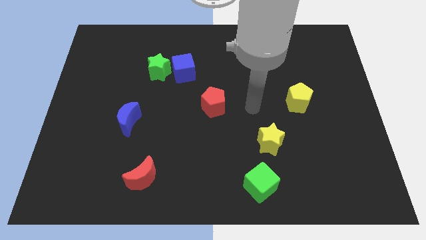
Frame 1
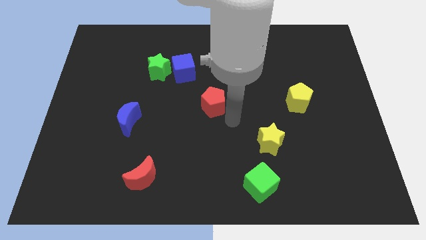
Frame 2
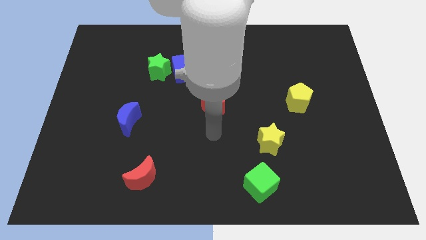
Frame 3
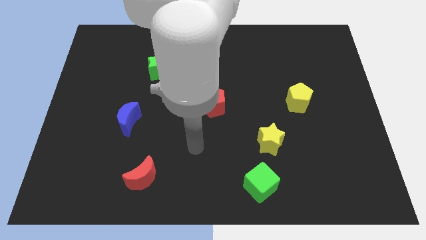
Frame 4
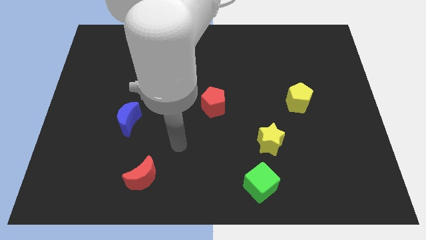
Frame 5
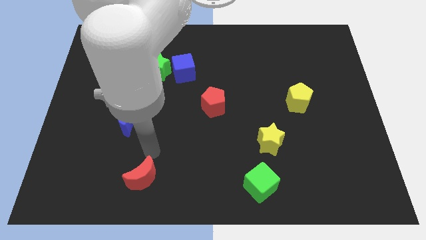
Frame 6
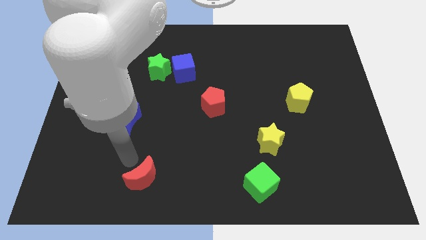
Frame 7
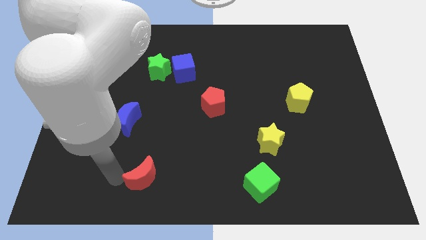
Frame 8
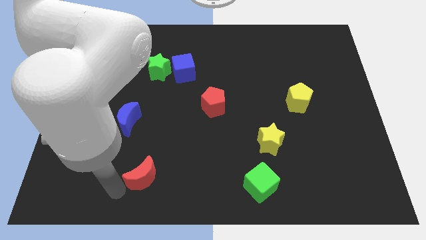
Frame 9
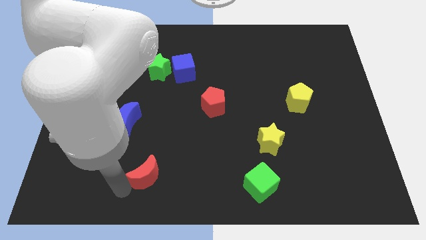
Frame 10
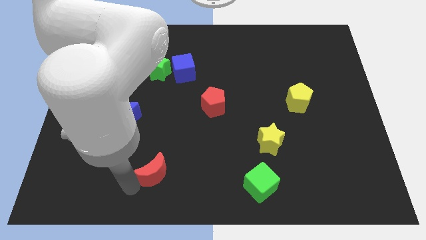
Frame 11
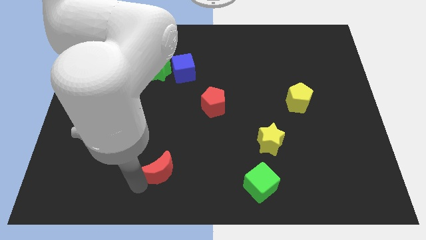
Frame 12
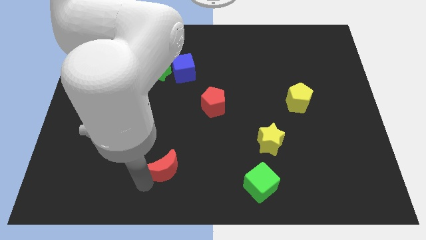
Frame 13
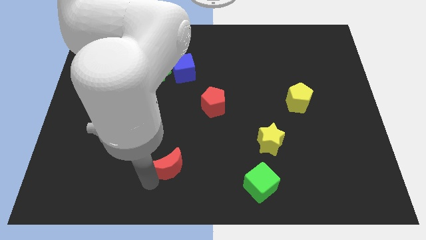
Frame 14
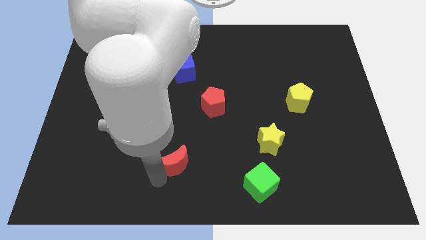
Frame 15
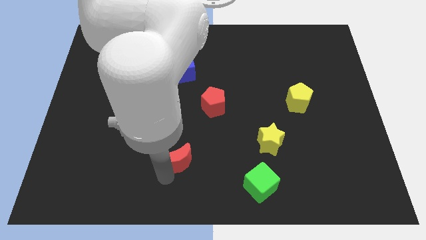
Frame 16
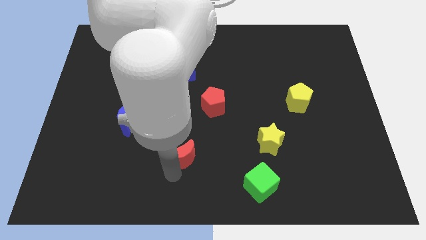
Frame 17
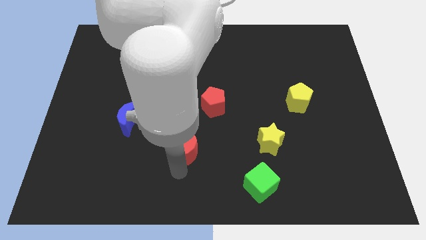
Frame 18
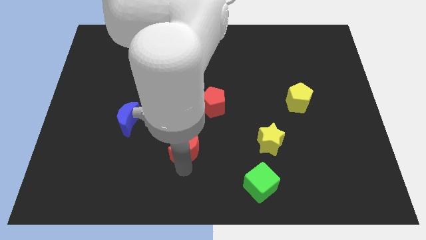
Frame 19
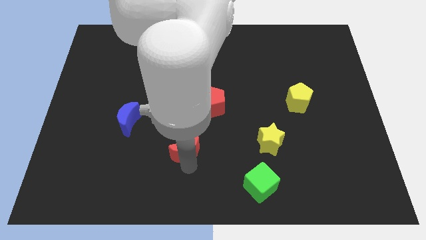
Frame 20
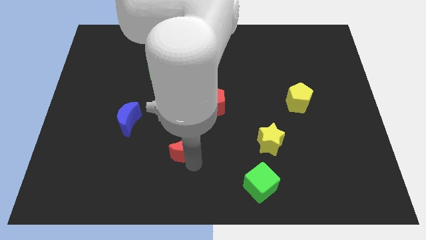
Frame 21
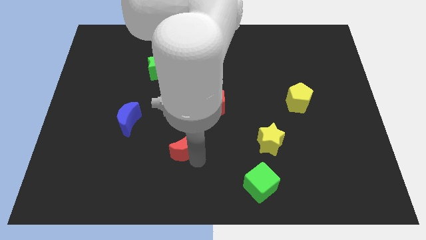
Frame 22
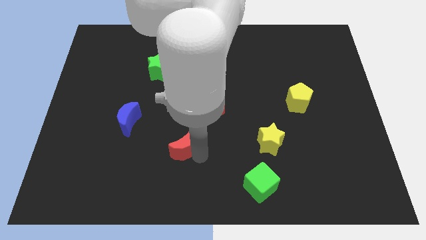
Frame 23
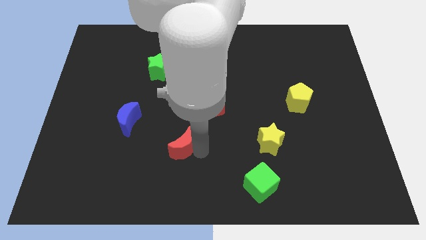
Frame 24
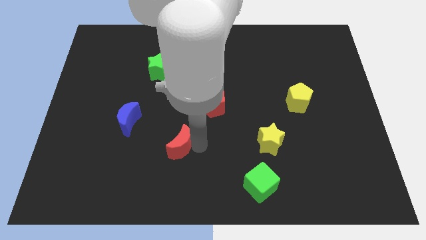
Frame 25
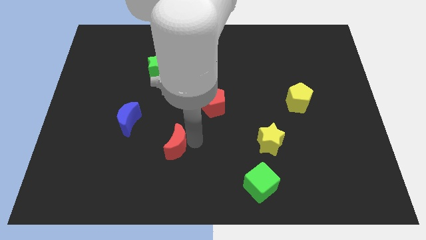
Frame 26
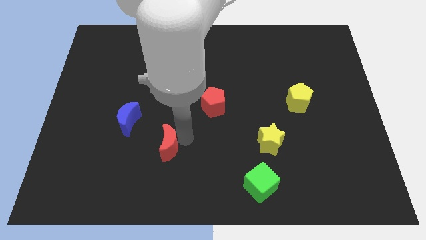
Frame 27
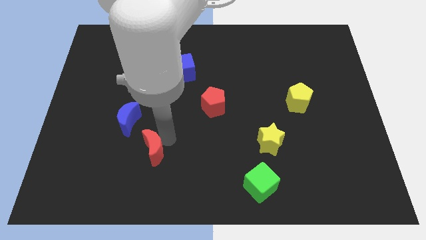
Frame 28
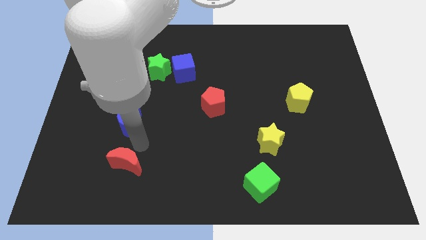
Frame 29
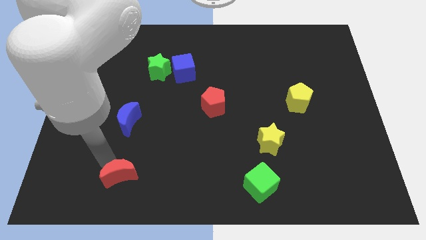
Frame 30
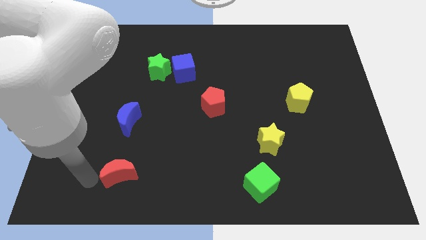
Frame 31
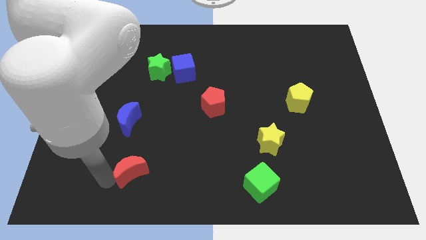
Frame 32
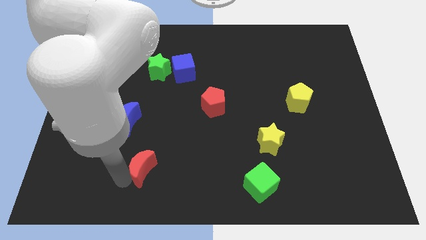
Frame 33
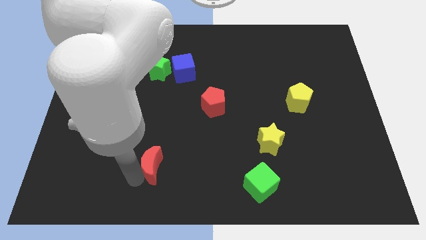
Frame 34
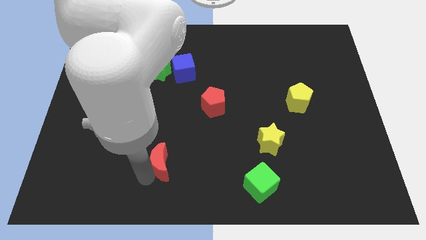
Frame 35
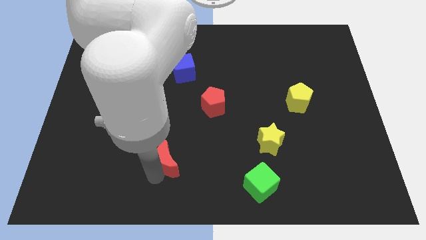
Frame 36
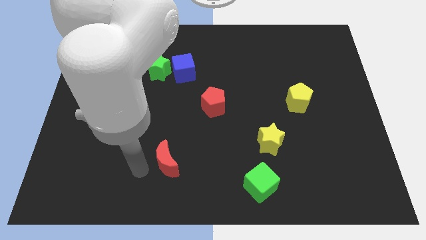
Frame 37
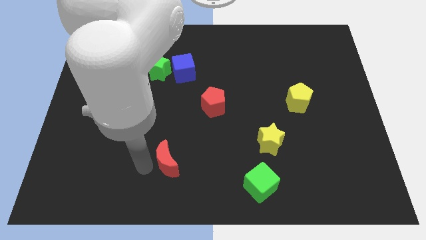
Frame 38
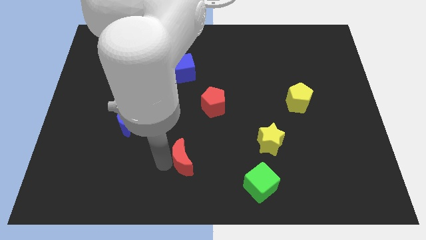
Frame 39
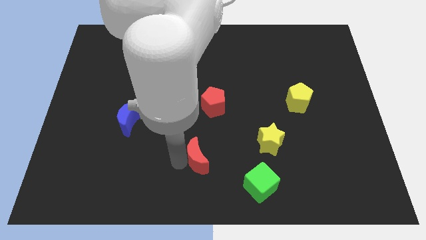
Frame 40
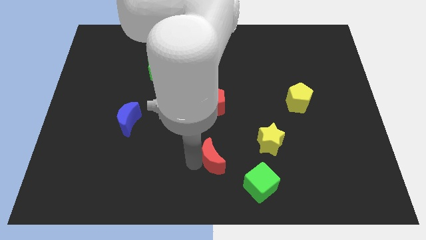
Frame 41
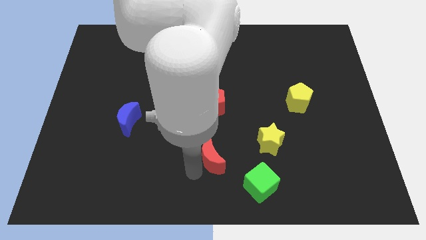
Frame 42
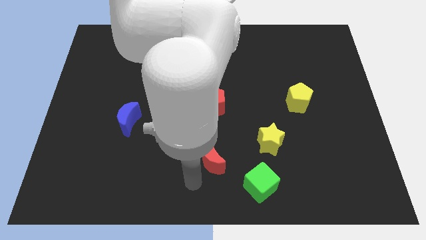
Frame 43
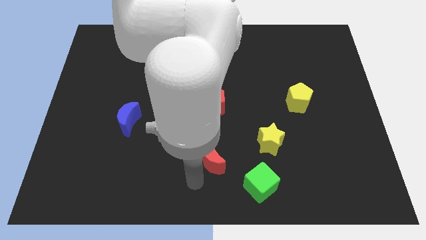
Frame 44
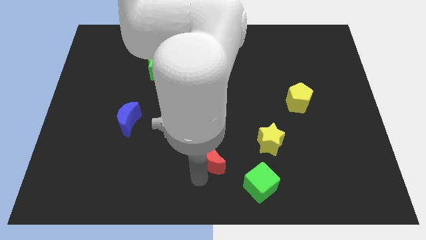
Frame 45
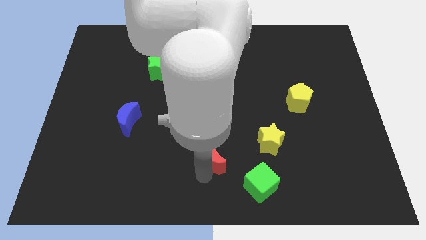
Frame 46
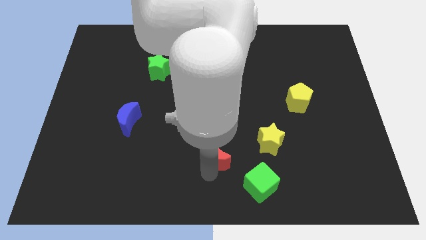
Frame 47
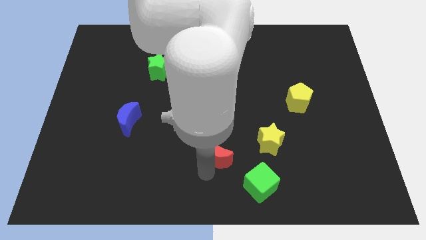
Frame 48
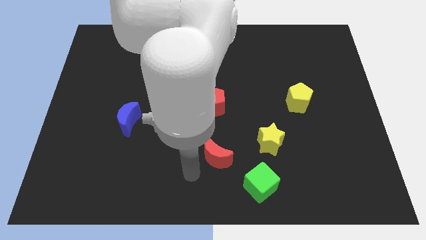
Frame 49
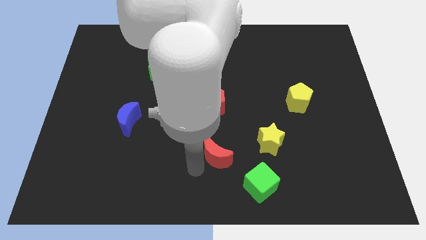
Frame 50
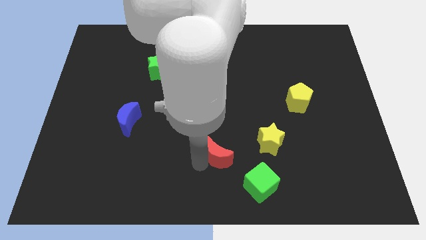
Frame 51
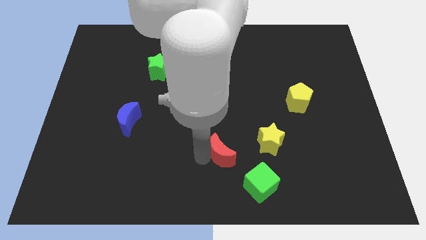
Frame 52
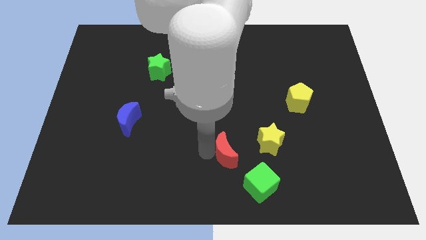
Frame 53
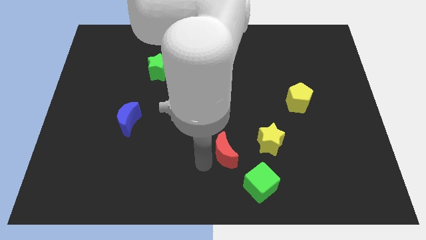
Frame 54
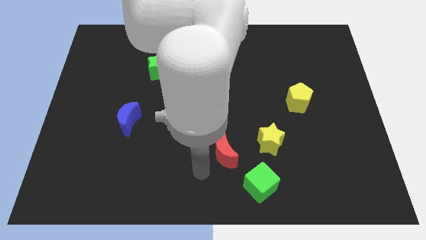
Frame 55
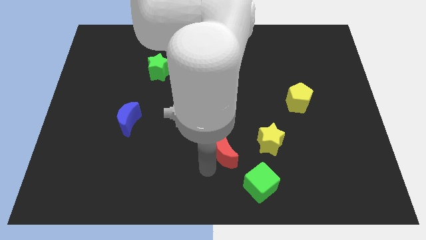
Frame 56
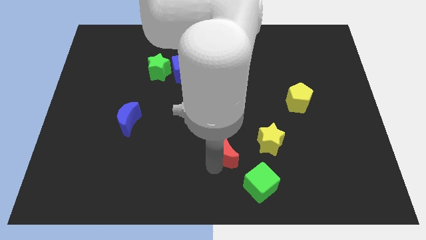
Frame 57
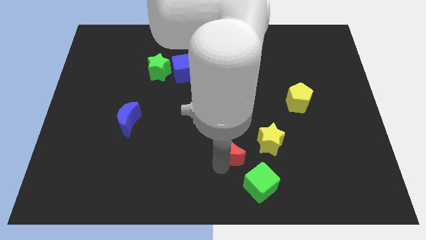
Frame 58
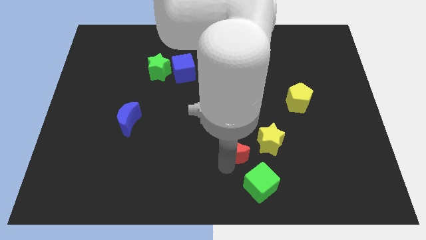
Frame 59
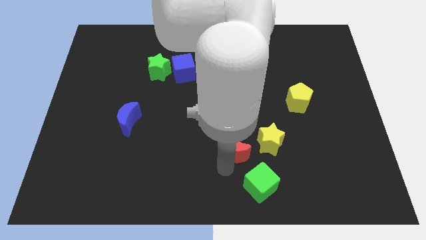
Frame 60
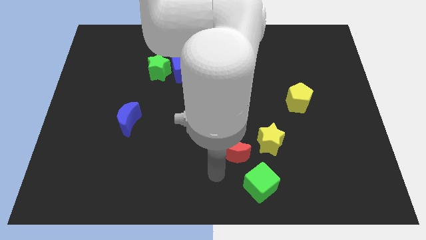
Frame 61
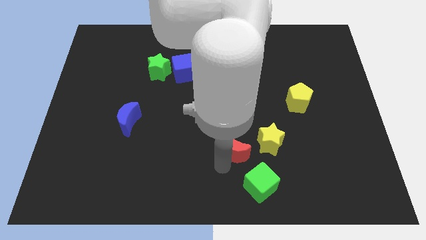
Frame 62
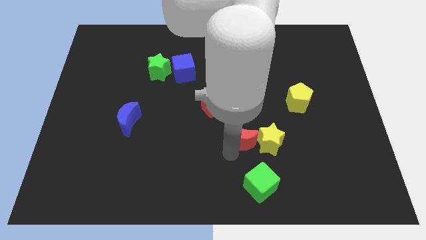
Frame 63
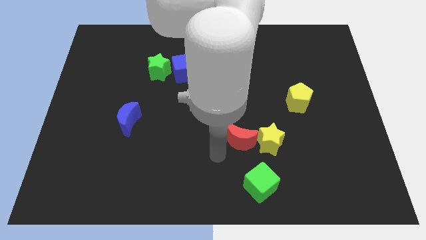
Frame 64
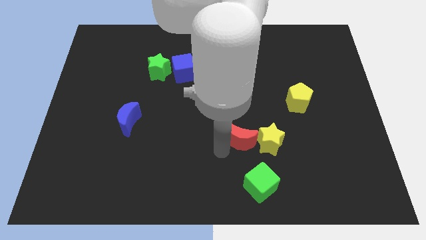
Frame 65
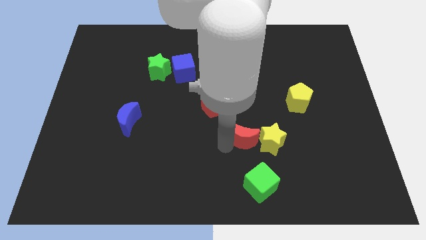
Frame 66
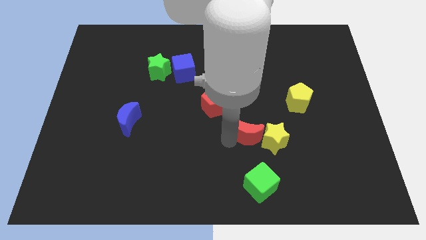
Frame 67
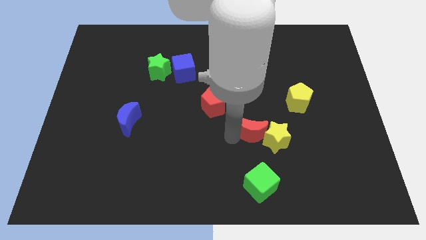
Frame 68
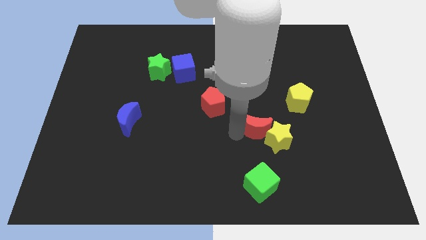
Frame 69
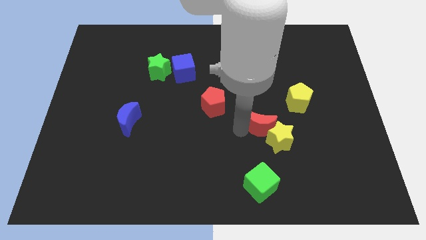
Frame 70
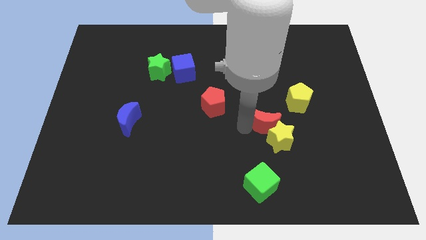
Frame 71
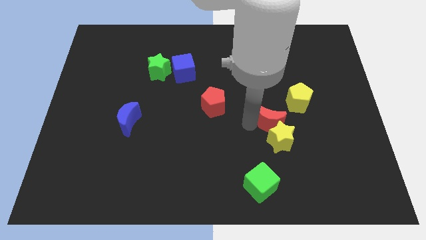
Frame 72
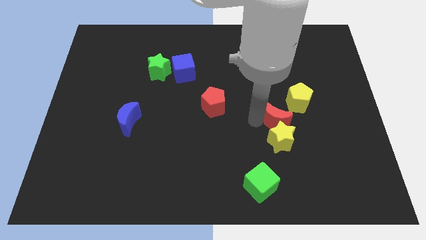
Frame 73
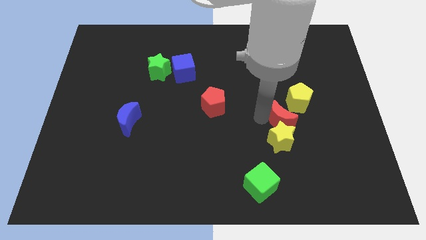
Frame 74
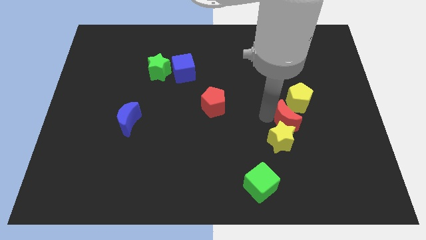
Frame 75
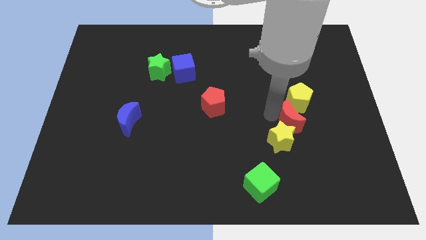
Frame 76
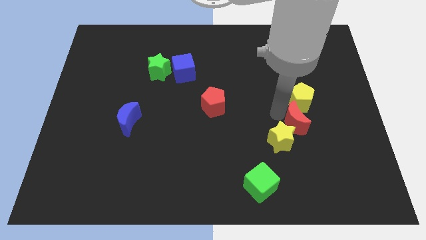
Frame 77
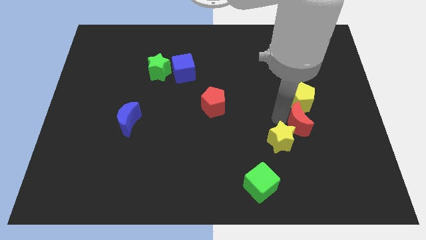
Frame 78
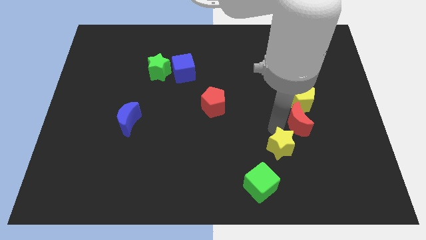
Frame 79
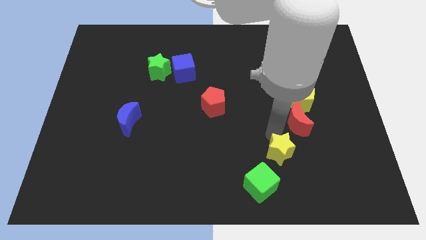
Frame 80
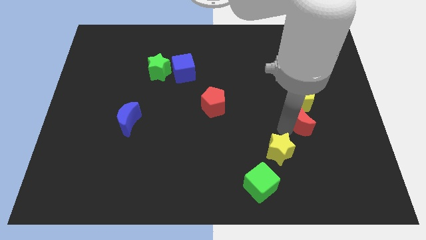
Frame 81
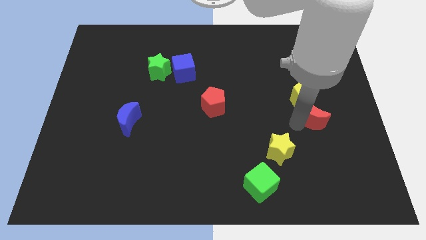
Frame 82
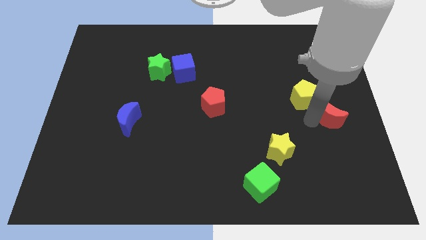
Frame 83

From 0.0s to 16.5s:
put the red moon to the right side
